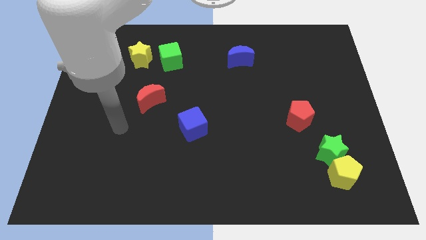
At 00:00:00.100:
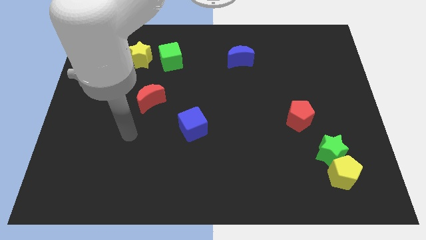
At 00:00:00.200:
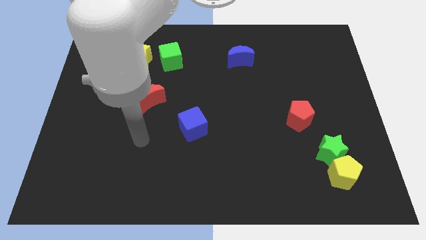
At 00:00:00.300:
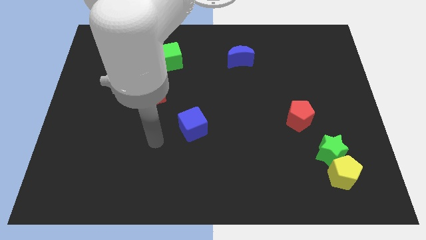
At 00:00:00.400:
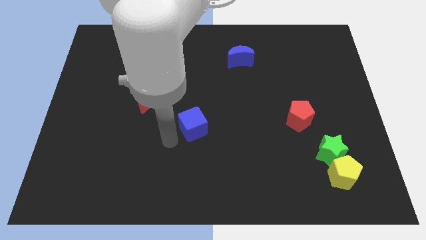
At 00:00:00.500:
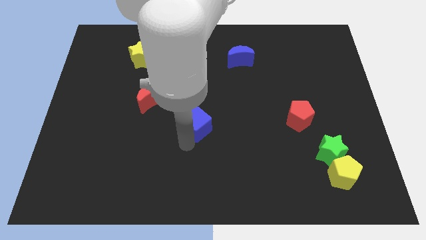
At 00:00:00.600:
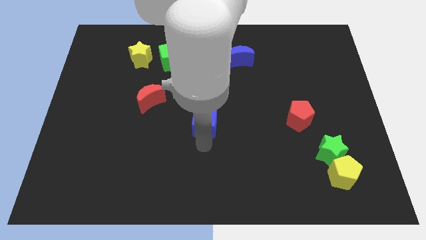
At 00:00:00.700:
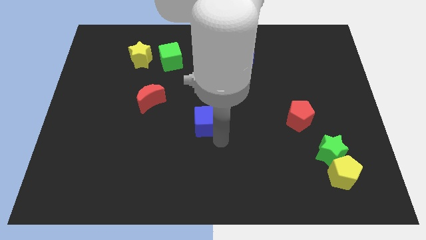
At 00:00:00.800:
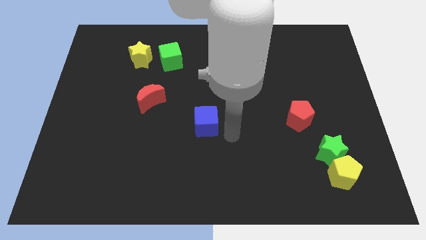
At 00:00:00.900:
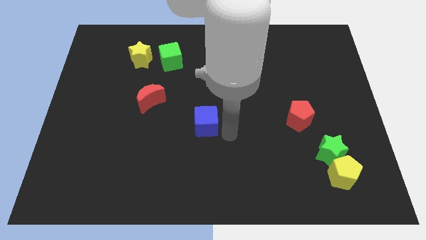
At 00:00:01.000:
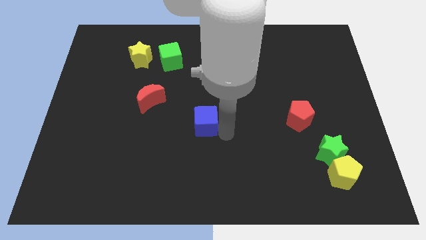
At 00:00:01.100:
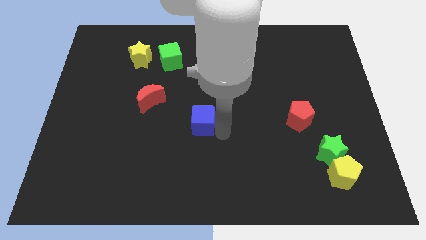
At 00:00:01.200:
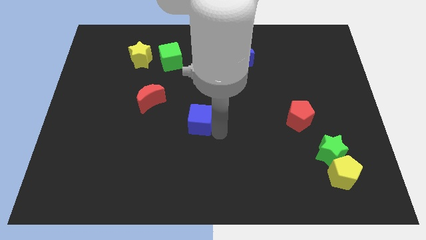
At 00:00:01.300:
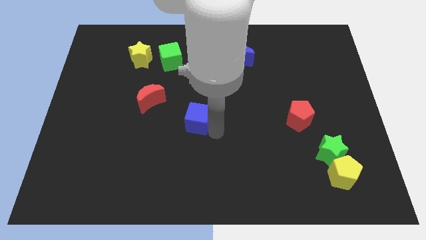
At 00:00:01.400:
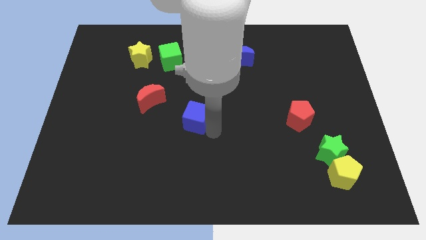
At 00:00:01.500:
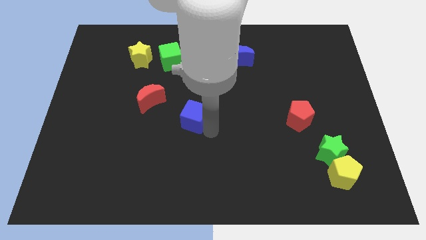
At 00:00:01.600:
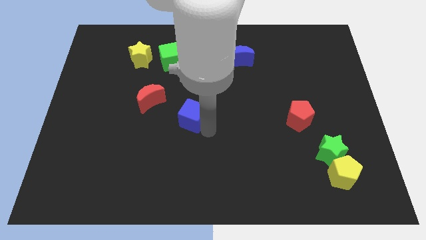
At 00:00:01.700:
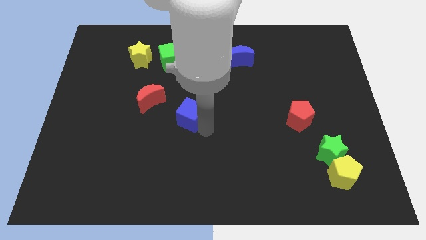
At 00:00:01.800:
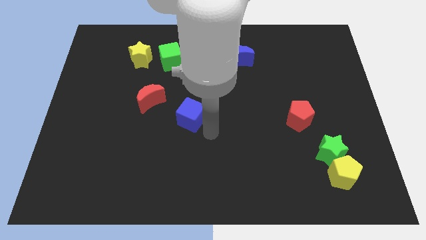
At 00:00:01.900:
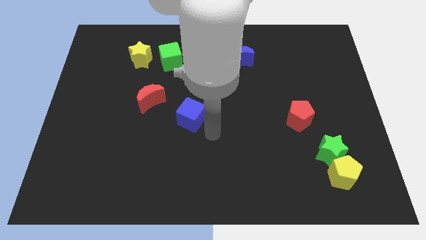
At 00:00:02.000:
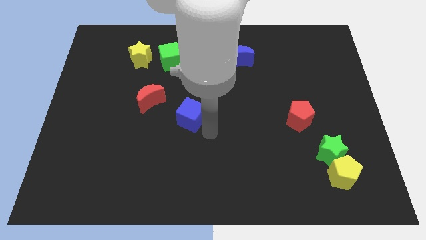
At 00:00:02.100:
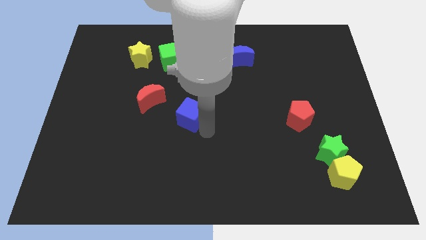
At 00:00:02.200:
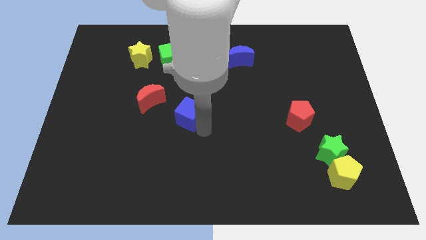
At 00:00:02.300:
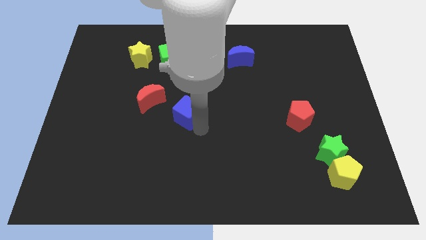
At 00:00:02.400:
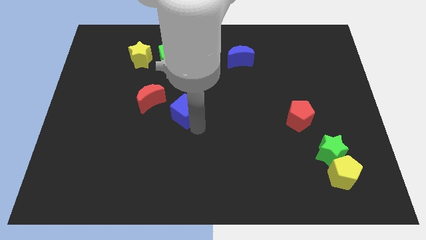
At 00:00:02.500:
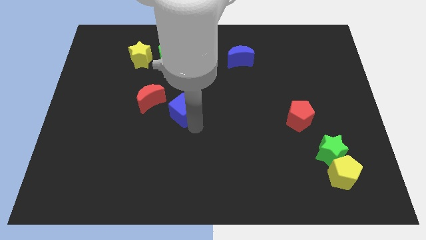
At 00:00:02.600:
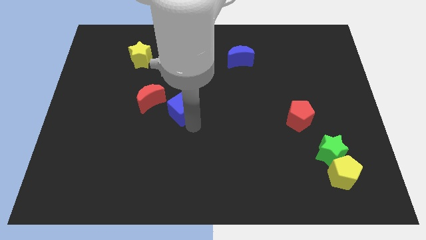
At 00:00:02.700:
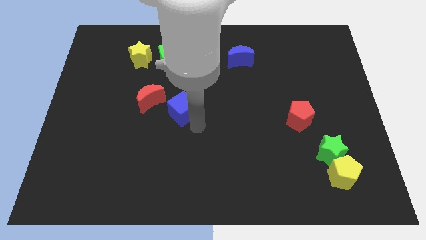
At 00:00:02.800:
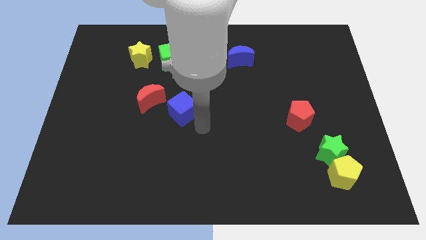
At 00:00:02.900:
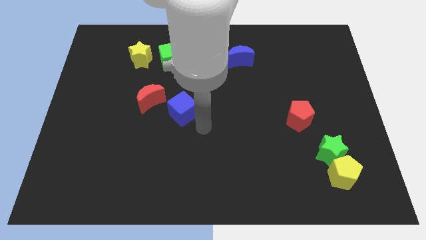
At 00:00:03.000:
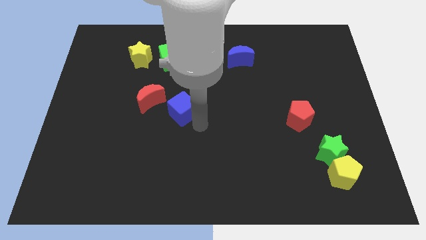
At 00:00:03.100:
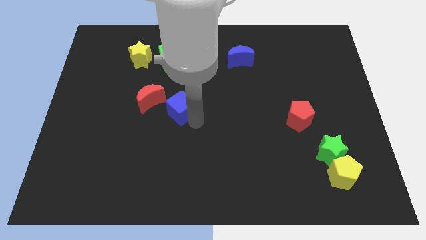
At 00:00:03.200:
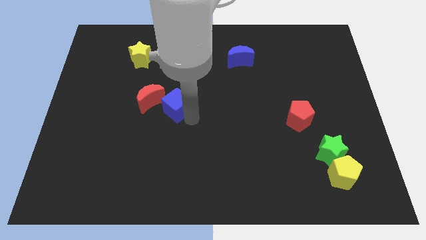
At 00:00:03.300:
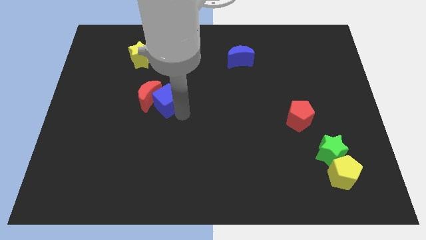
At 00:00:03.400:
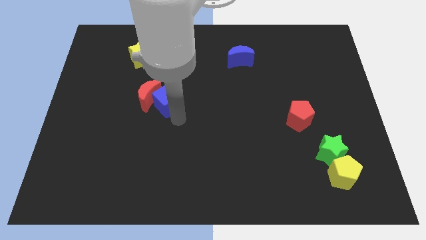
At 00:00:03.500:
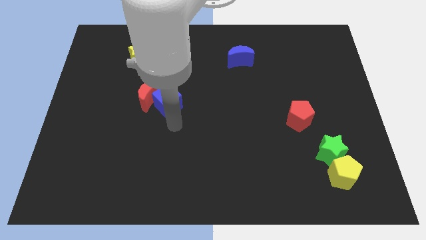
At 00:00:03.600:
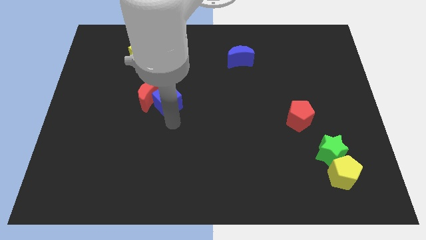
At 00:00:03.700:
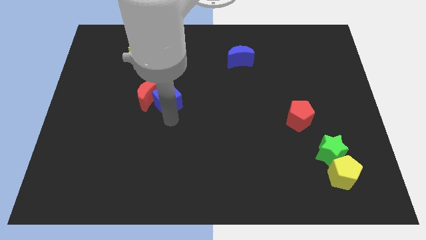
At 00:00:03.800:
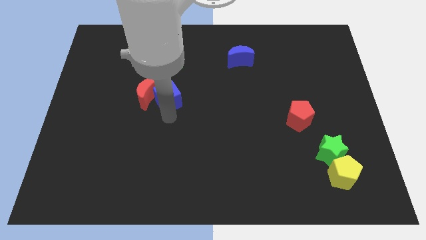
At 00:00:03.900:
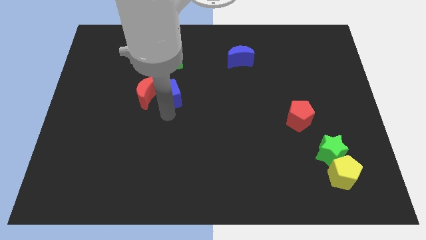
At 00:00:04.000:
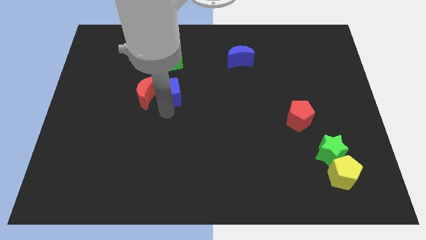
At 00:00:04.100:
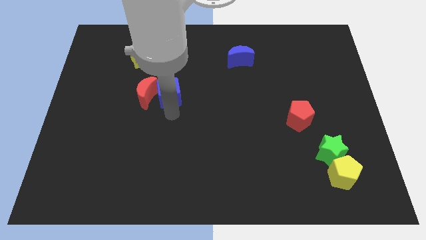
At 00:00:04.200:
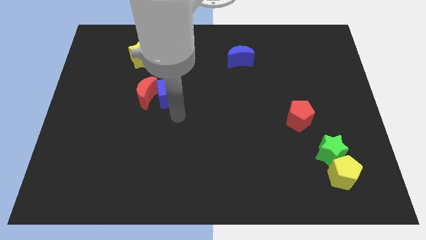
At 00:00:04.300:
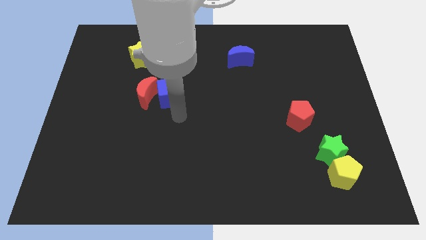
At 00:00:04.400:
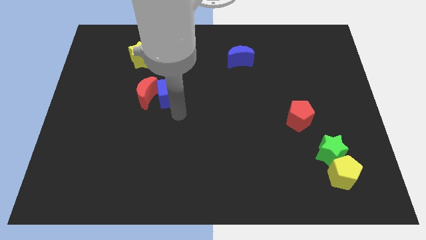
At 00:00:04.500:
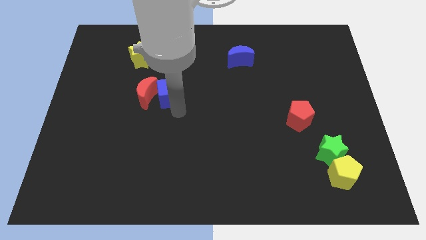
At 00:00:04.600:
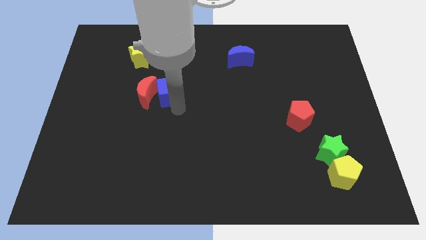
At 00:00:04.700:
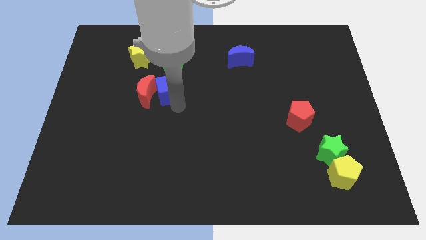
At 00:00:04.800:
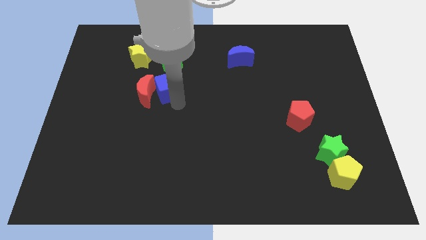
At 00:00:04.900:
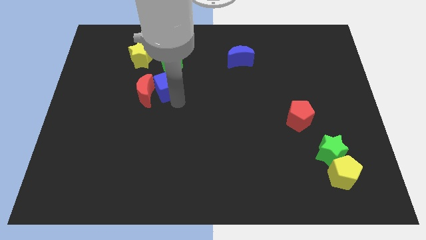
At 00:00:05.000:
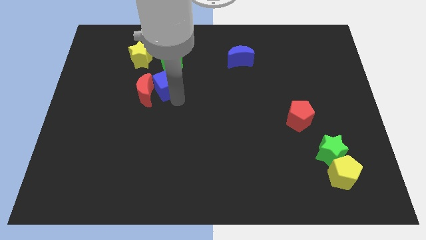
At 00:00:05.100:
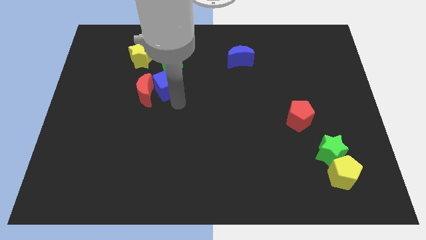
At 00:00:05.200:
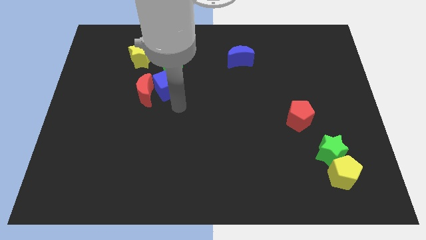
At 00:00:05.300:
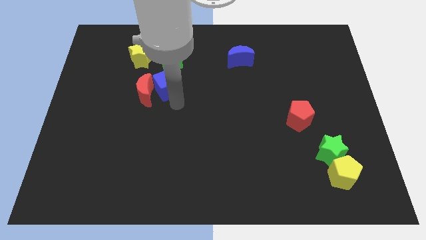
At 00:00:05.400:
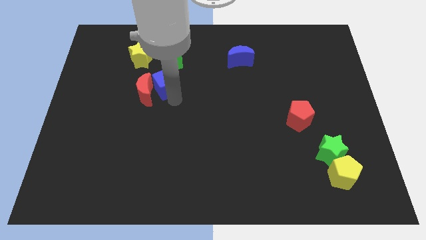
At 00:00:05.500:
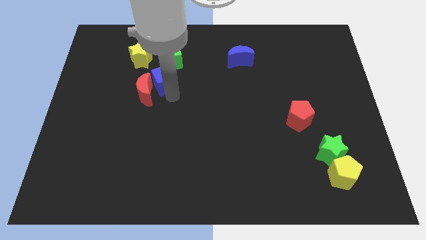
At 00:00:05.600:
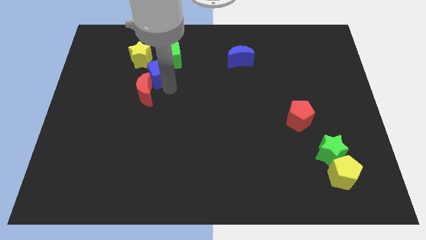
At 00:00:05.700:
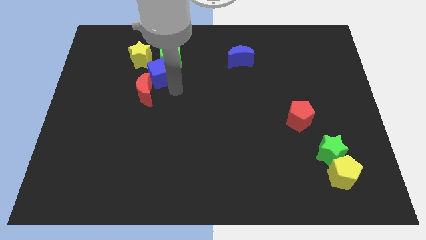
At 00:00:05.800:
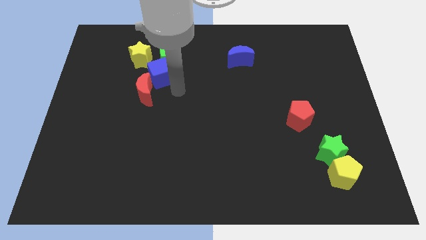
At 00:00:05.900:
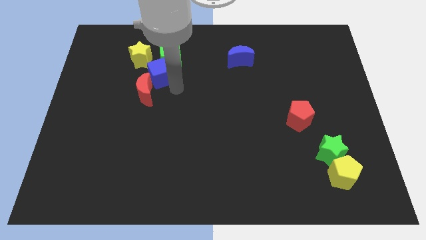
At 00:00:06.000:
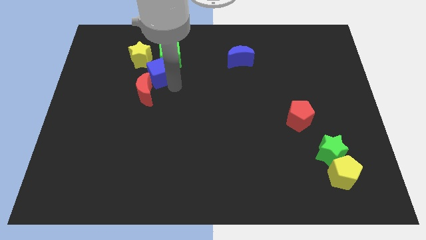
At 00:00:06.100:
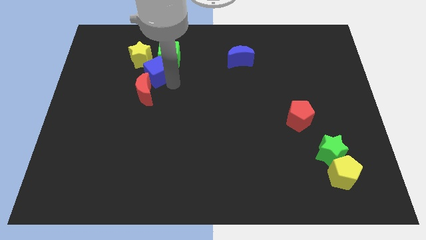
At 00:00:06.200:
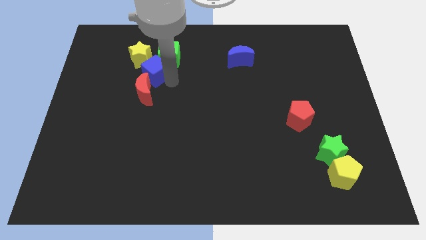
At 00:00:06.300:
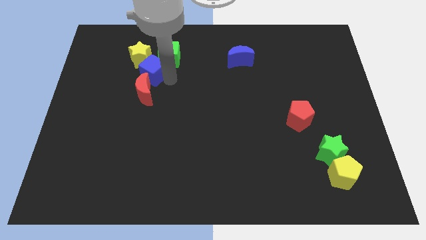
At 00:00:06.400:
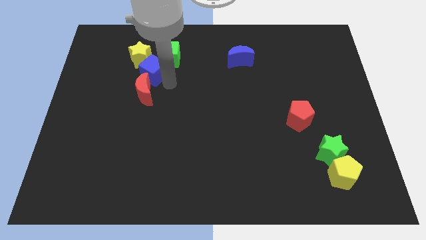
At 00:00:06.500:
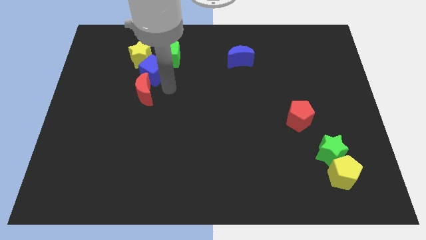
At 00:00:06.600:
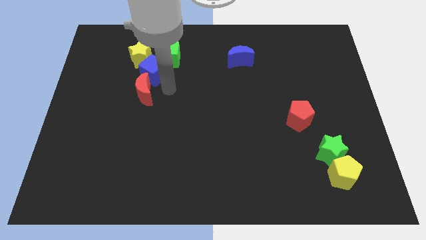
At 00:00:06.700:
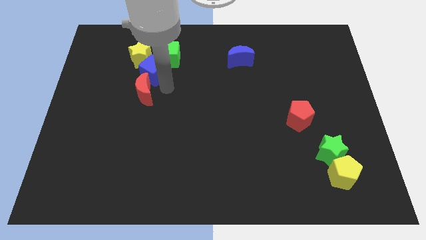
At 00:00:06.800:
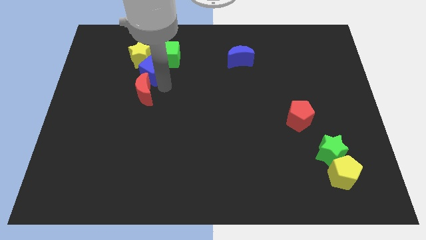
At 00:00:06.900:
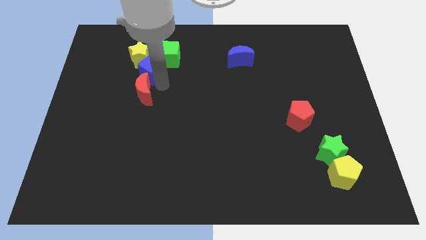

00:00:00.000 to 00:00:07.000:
push the blue cube close to the yellow star

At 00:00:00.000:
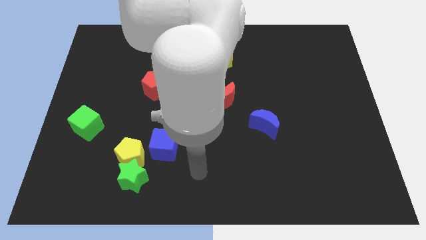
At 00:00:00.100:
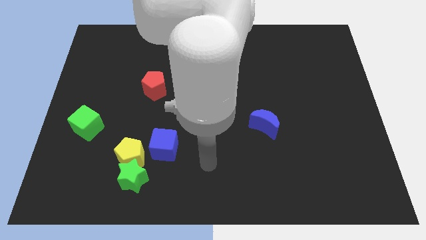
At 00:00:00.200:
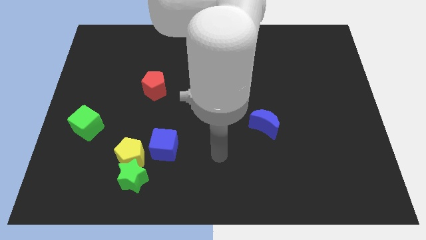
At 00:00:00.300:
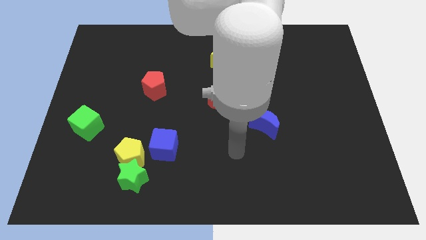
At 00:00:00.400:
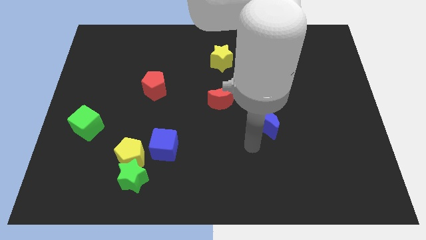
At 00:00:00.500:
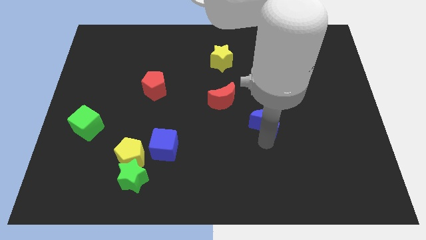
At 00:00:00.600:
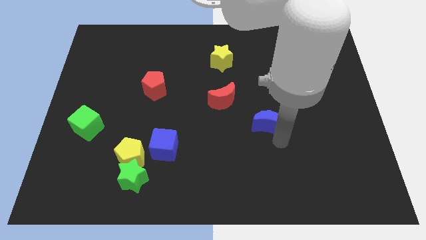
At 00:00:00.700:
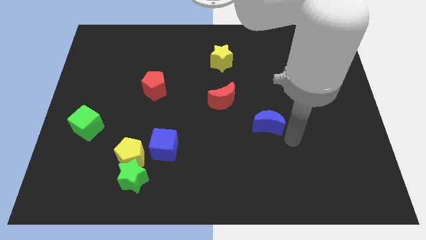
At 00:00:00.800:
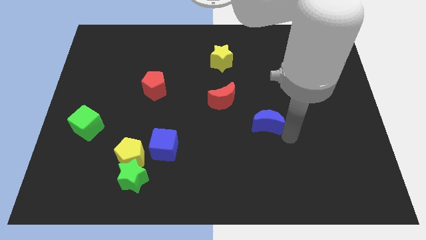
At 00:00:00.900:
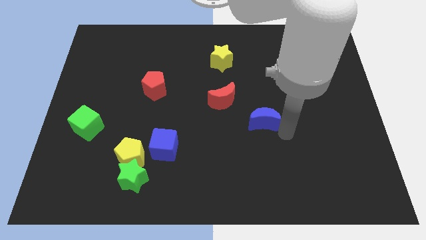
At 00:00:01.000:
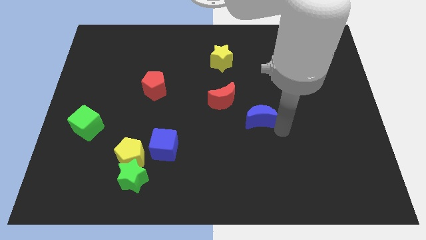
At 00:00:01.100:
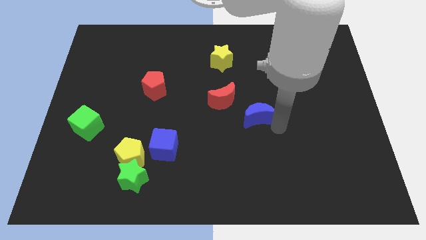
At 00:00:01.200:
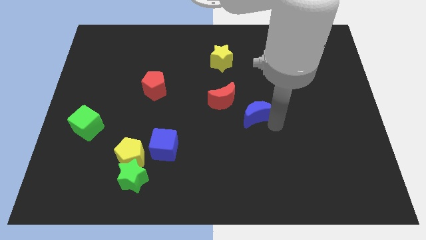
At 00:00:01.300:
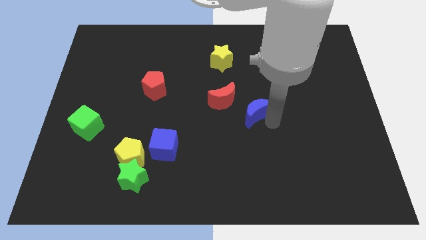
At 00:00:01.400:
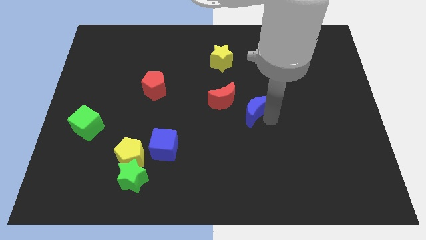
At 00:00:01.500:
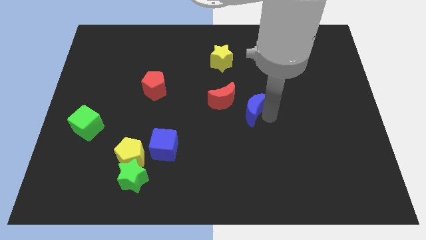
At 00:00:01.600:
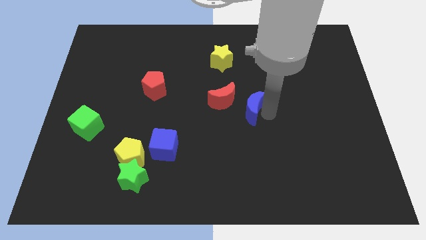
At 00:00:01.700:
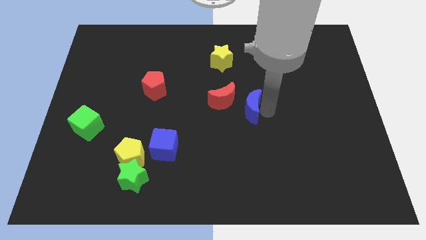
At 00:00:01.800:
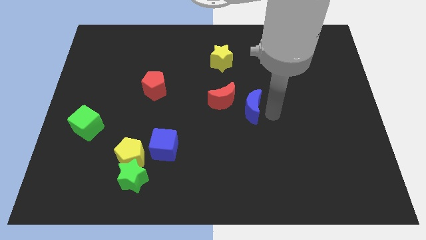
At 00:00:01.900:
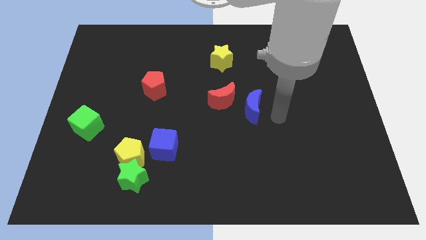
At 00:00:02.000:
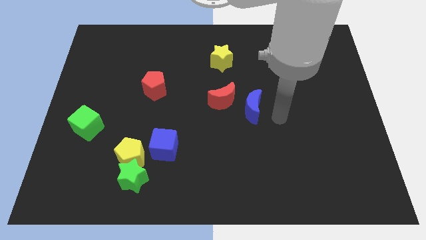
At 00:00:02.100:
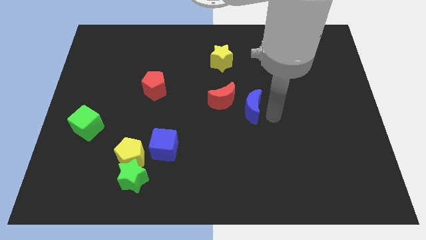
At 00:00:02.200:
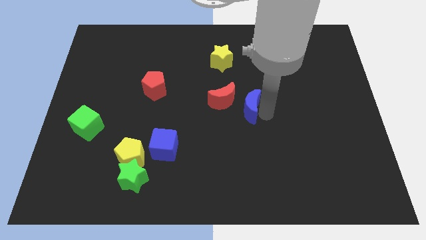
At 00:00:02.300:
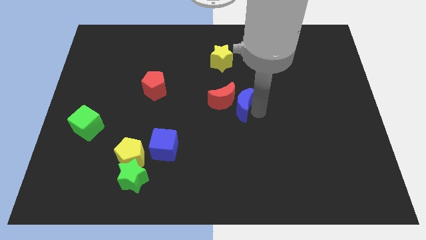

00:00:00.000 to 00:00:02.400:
move the blue moon next to the red moon
